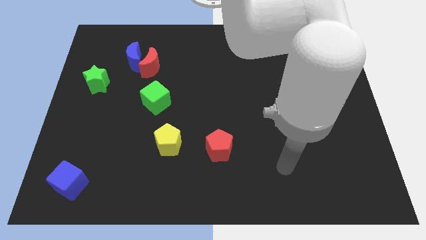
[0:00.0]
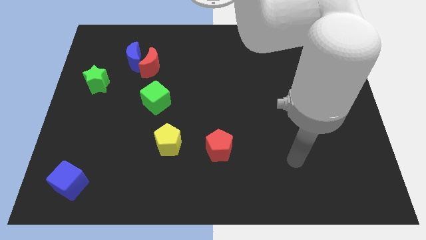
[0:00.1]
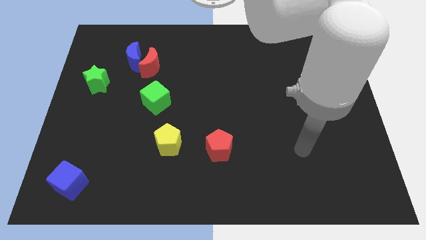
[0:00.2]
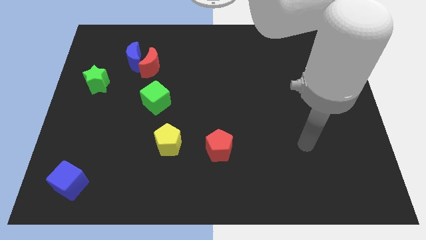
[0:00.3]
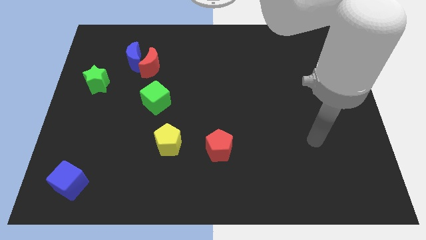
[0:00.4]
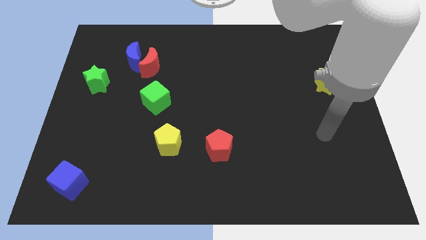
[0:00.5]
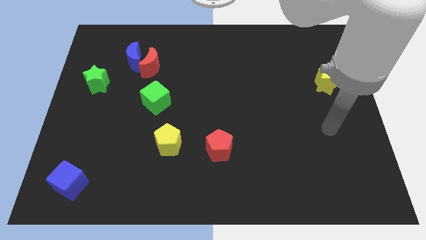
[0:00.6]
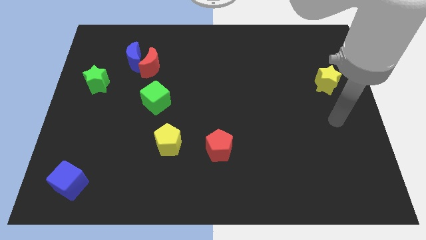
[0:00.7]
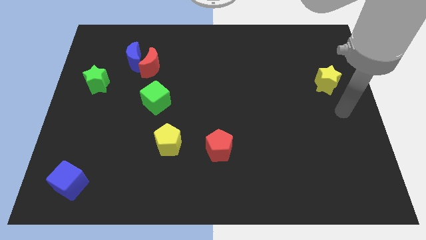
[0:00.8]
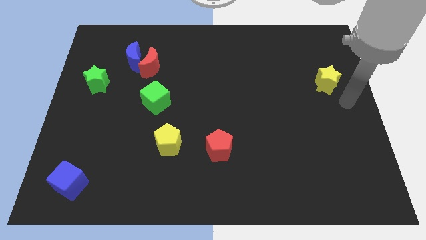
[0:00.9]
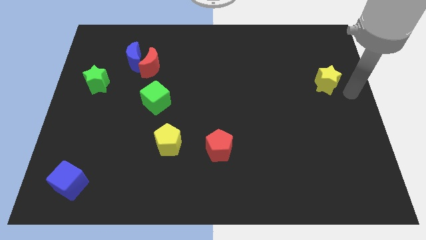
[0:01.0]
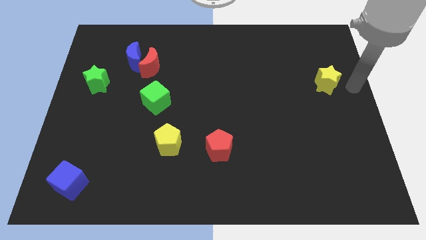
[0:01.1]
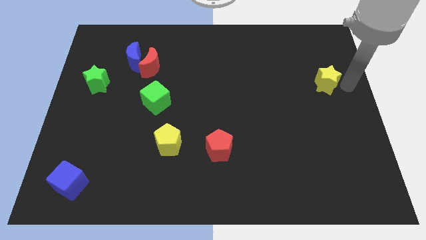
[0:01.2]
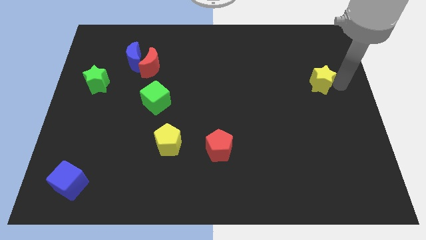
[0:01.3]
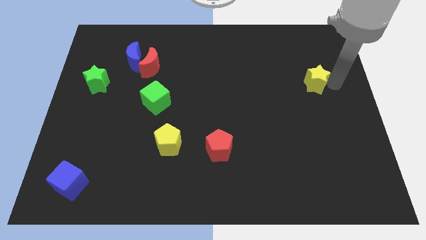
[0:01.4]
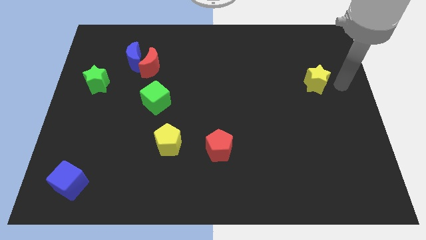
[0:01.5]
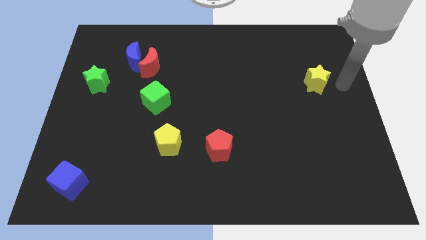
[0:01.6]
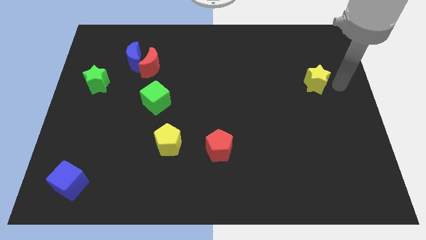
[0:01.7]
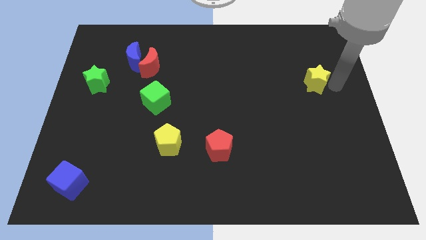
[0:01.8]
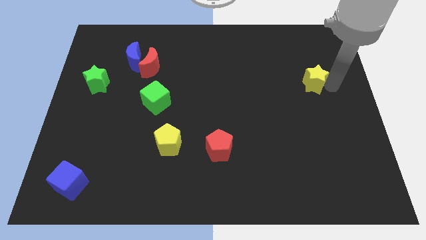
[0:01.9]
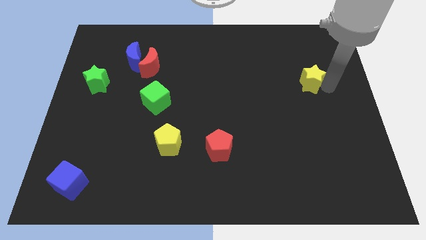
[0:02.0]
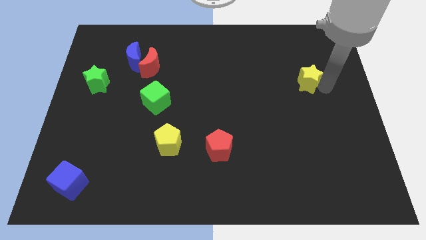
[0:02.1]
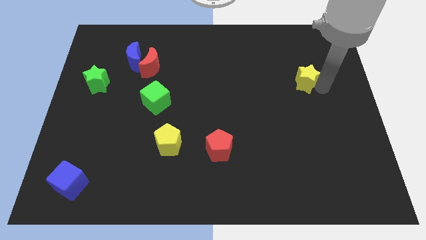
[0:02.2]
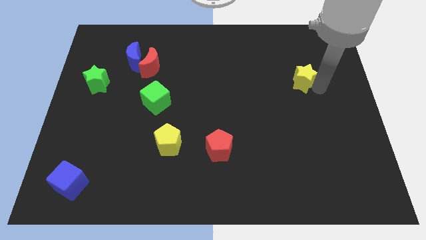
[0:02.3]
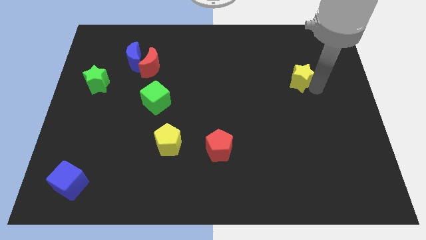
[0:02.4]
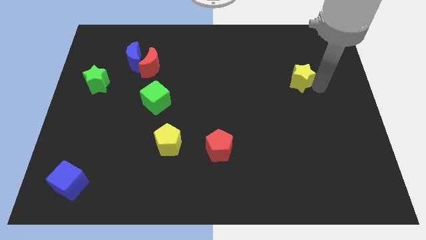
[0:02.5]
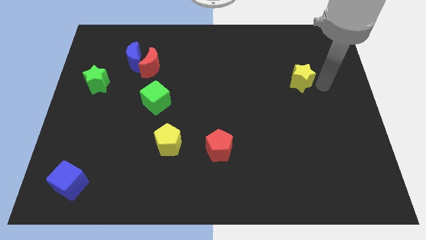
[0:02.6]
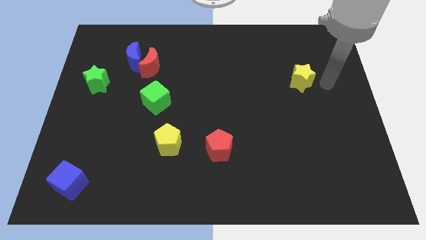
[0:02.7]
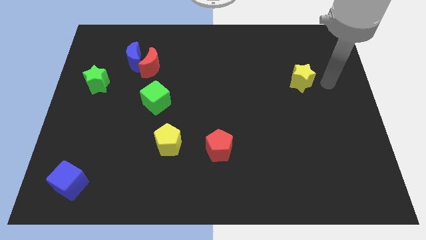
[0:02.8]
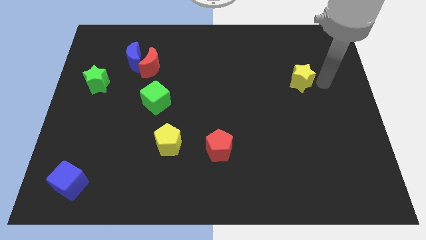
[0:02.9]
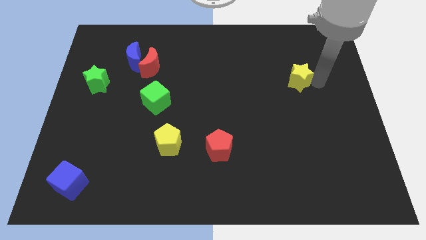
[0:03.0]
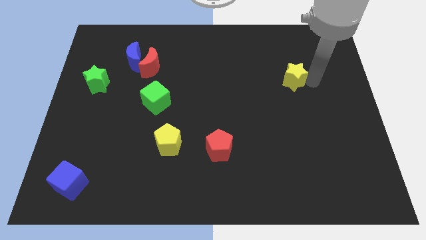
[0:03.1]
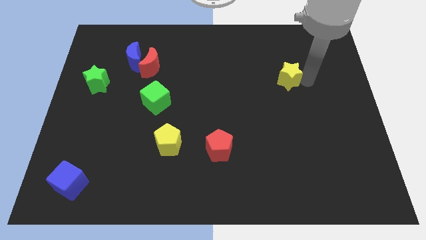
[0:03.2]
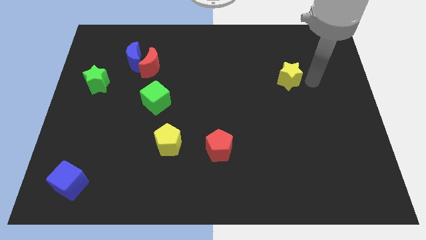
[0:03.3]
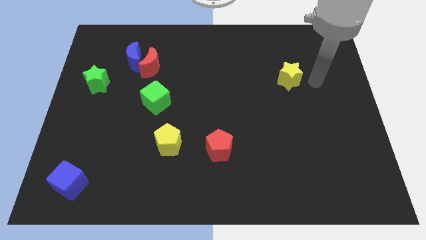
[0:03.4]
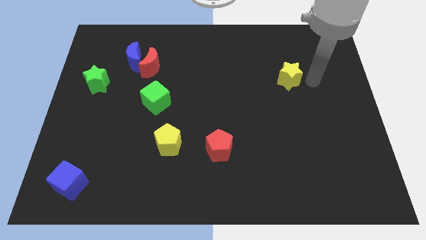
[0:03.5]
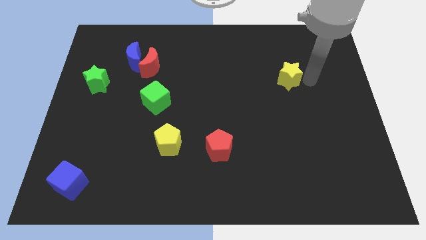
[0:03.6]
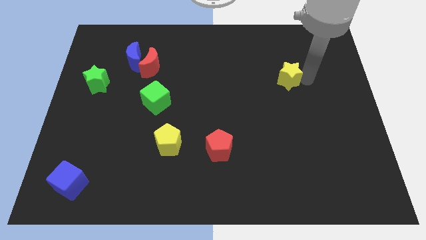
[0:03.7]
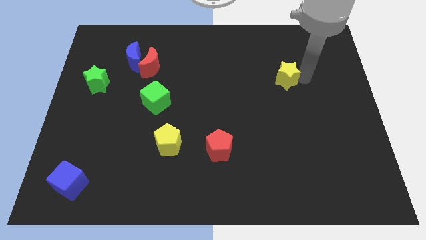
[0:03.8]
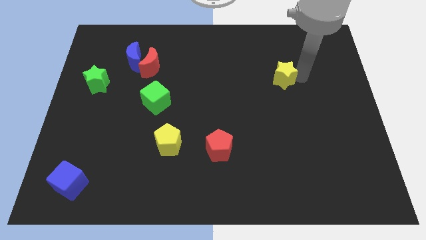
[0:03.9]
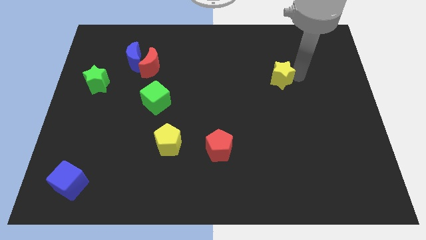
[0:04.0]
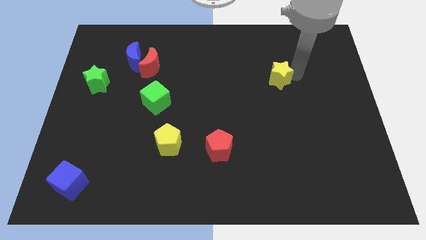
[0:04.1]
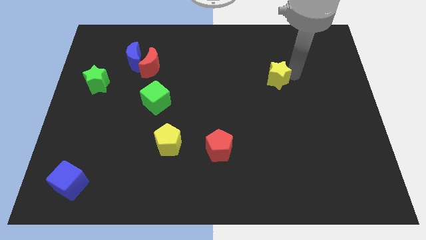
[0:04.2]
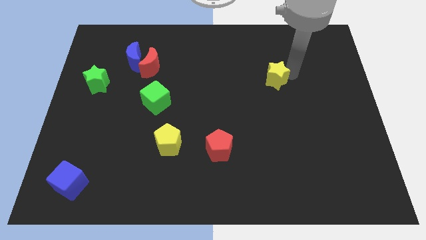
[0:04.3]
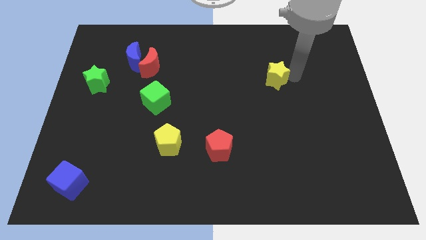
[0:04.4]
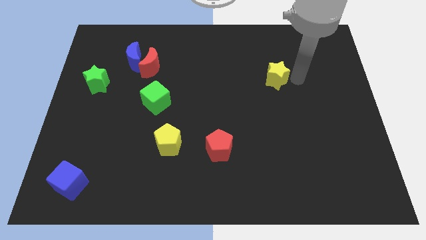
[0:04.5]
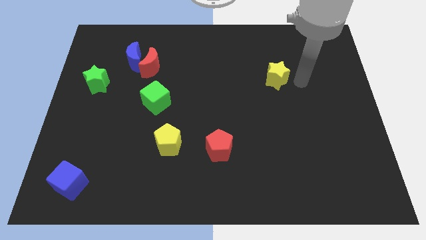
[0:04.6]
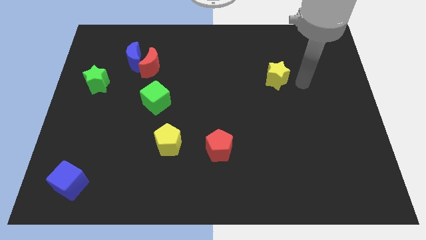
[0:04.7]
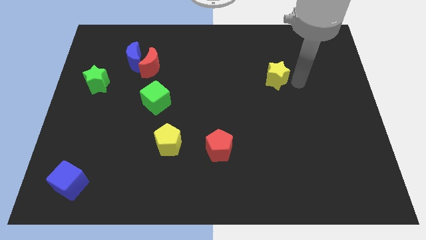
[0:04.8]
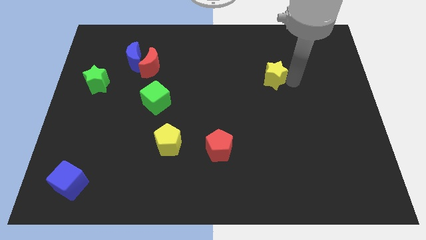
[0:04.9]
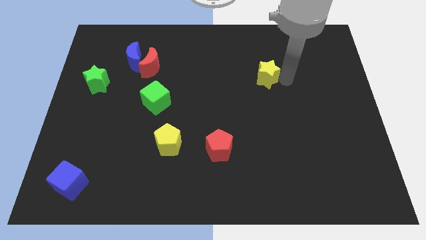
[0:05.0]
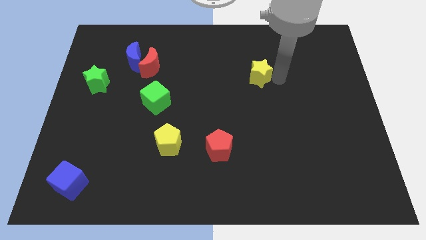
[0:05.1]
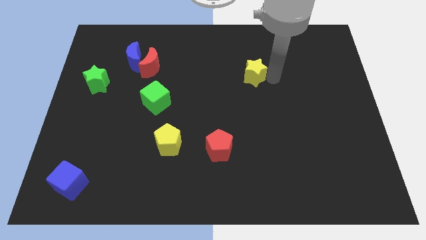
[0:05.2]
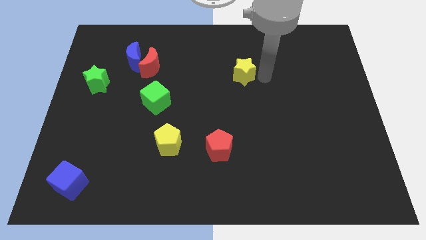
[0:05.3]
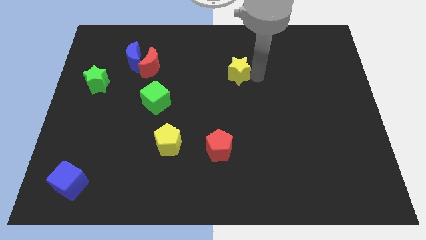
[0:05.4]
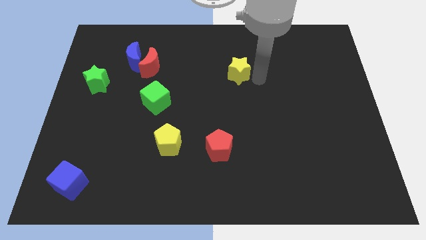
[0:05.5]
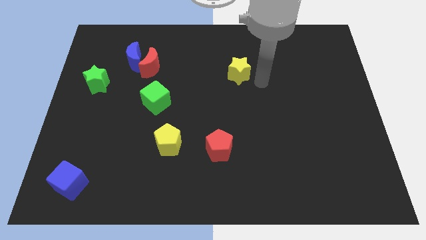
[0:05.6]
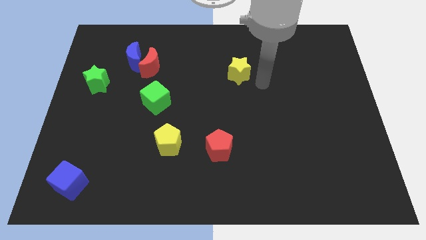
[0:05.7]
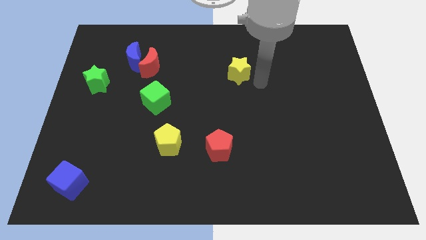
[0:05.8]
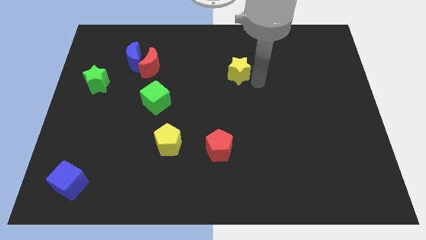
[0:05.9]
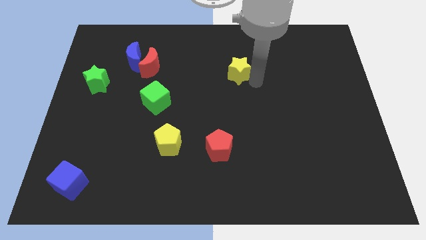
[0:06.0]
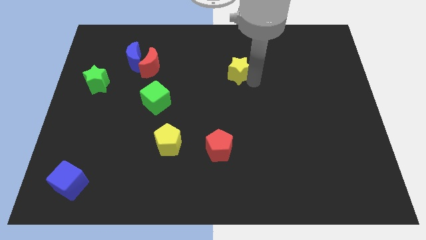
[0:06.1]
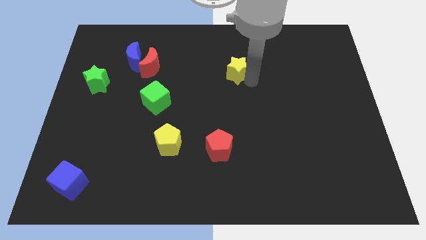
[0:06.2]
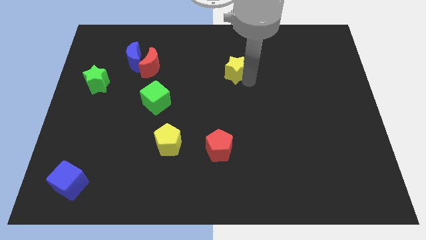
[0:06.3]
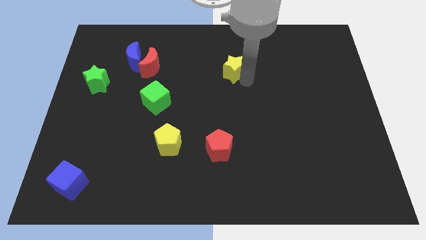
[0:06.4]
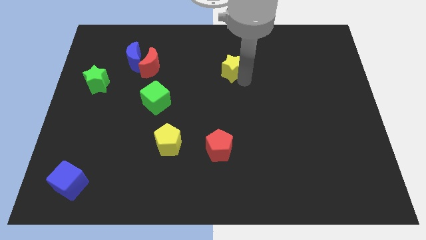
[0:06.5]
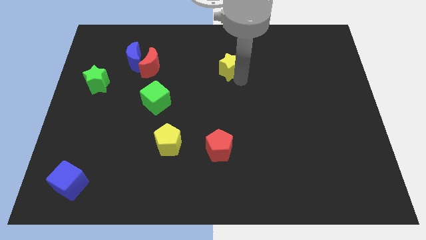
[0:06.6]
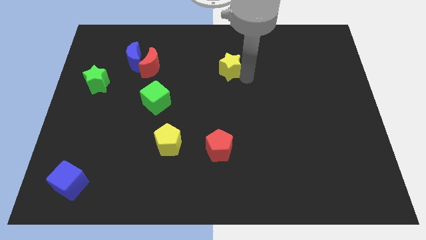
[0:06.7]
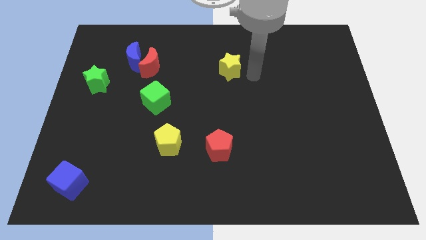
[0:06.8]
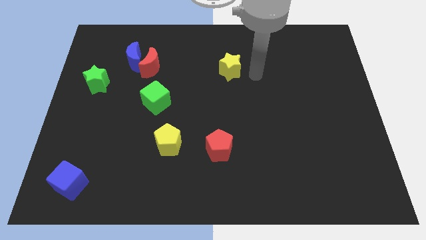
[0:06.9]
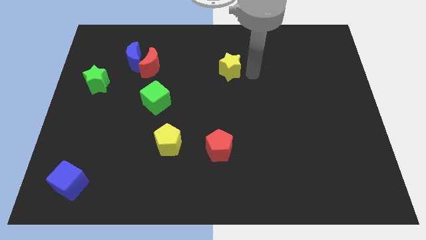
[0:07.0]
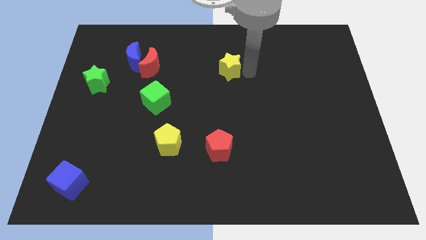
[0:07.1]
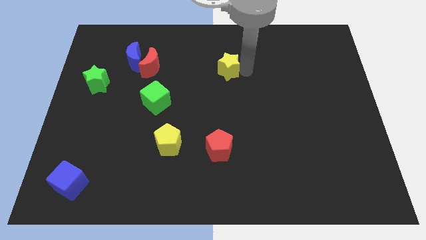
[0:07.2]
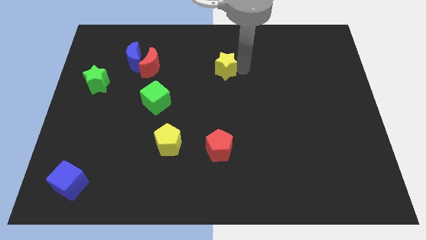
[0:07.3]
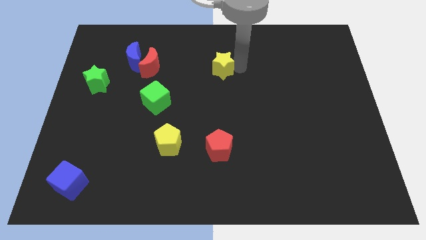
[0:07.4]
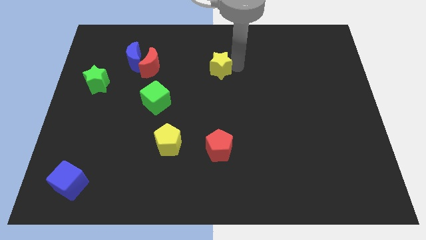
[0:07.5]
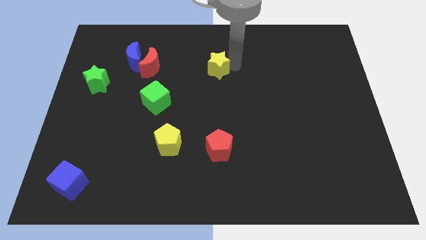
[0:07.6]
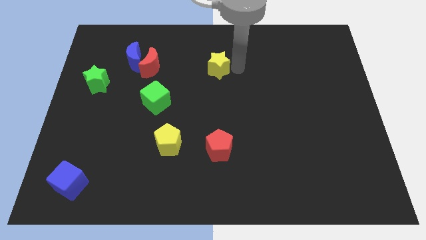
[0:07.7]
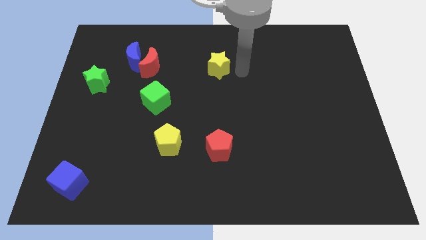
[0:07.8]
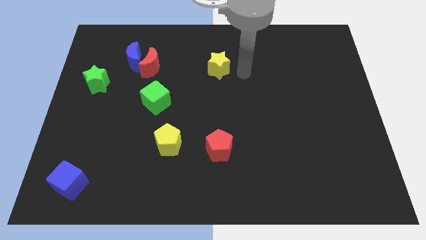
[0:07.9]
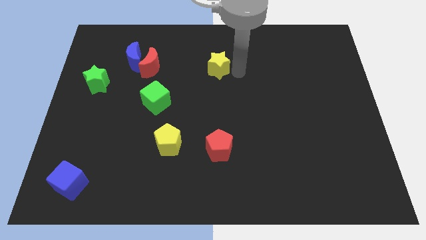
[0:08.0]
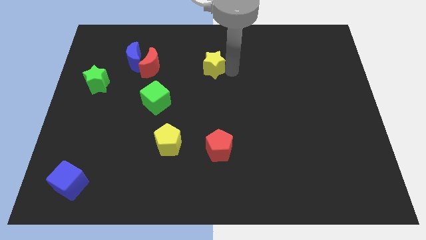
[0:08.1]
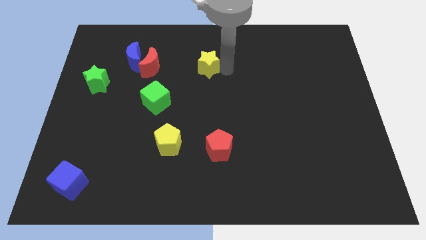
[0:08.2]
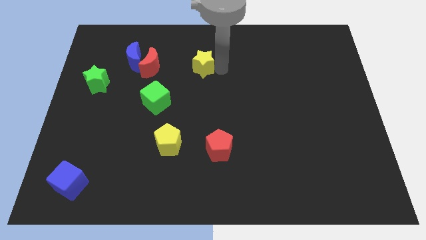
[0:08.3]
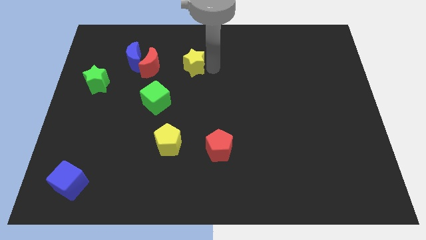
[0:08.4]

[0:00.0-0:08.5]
put the yellow star right of the blue moon
